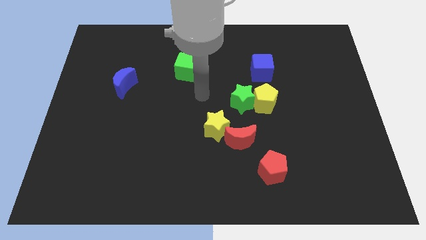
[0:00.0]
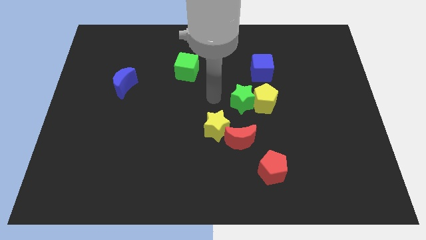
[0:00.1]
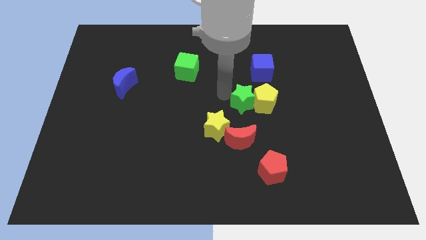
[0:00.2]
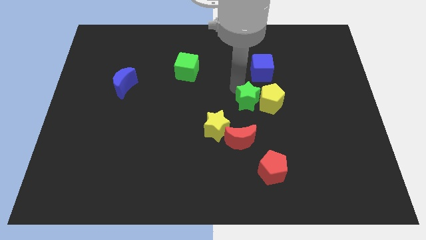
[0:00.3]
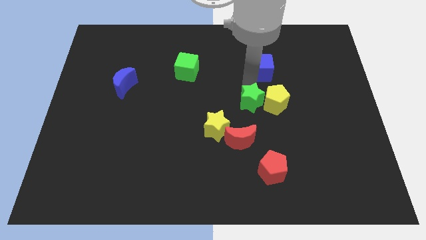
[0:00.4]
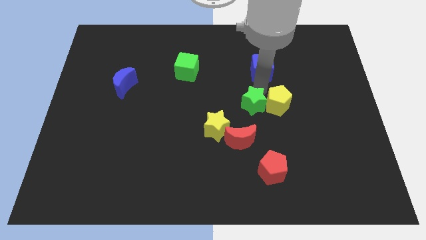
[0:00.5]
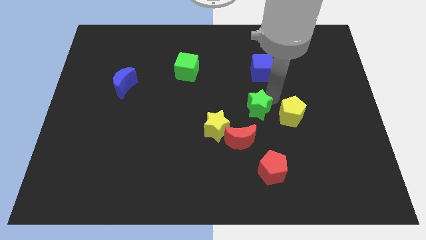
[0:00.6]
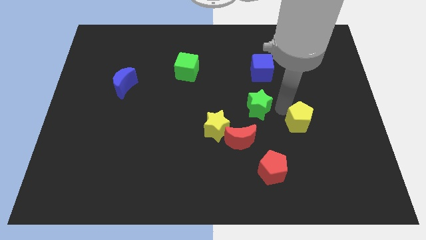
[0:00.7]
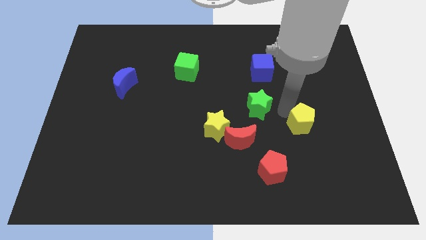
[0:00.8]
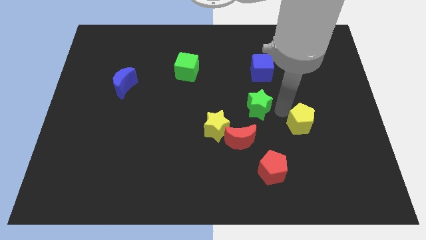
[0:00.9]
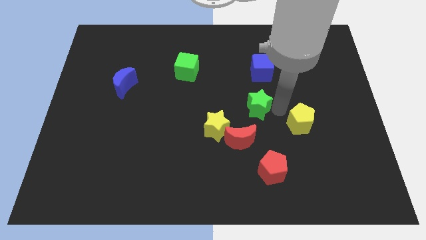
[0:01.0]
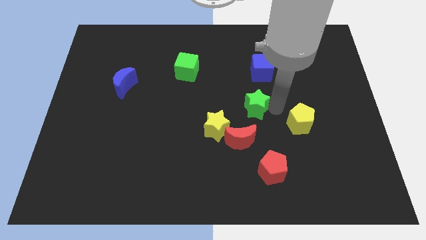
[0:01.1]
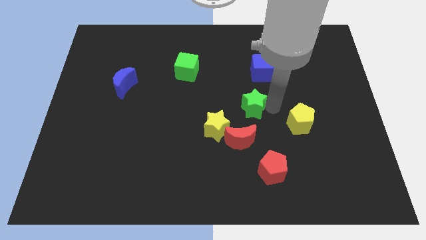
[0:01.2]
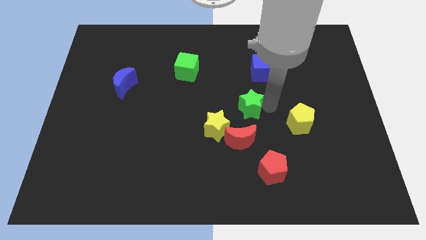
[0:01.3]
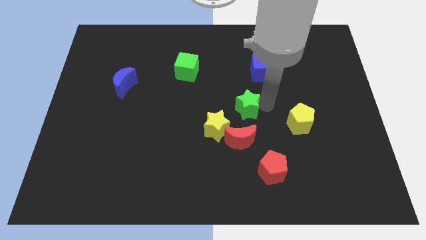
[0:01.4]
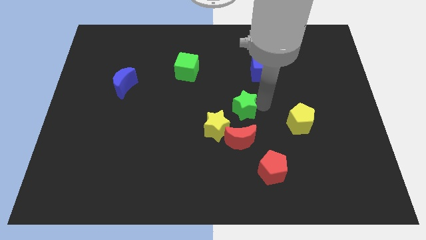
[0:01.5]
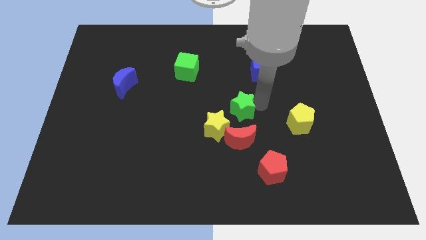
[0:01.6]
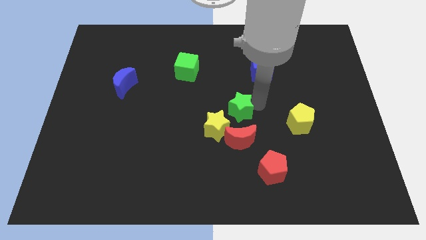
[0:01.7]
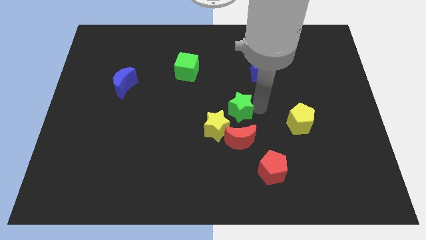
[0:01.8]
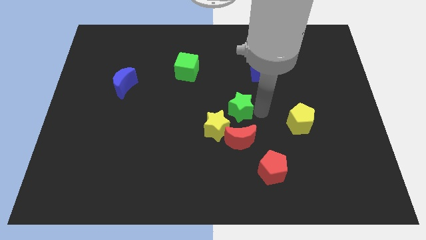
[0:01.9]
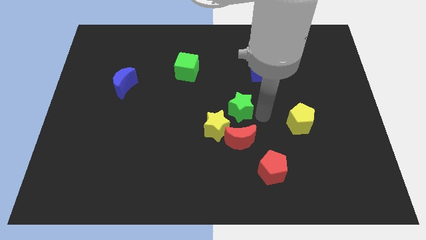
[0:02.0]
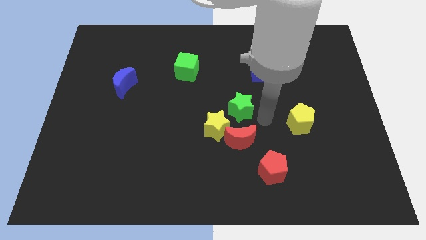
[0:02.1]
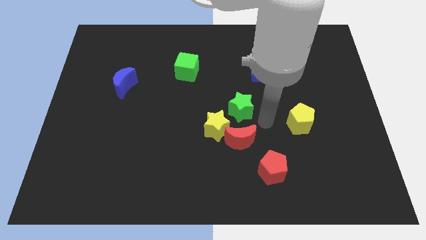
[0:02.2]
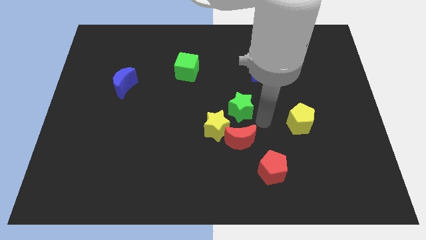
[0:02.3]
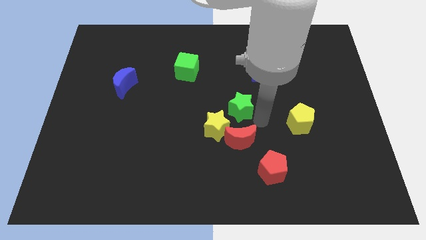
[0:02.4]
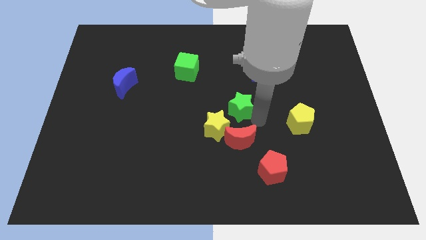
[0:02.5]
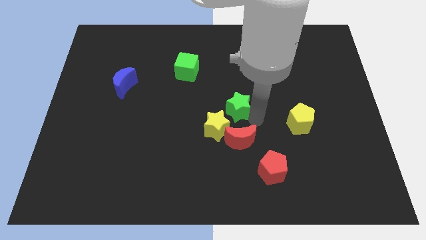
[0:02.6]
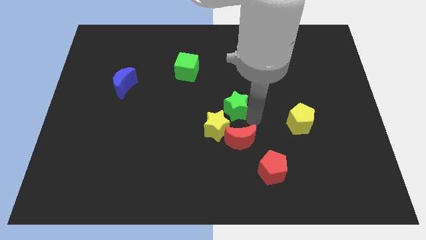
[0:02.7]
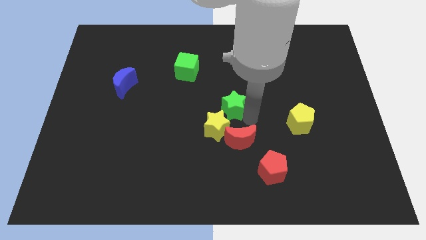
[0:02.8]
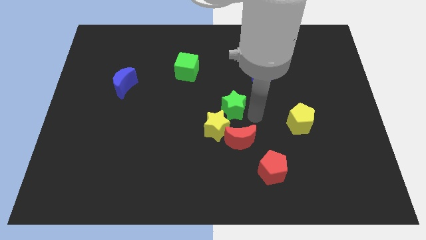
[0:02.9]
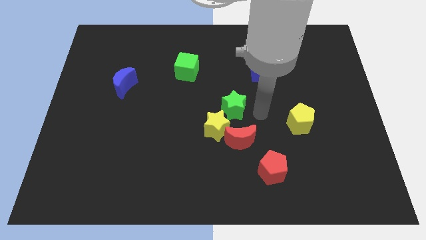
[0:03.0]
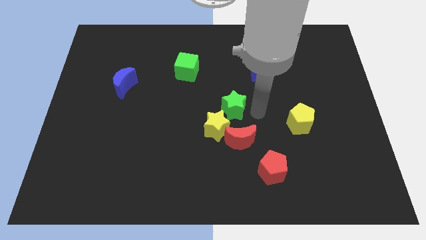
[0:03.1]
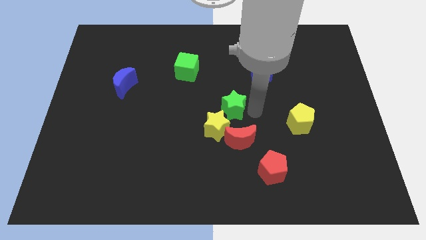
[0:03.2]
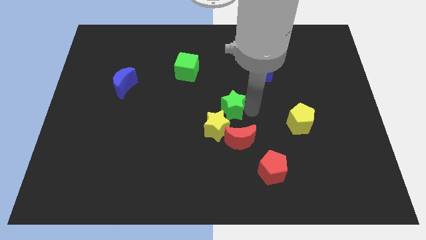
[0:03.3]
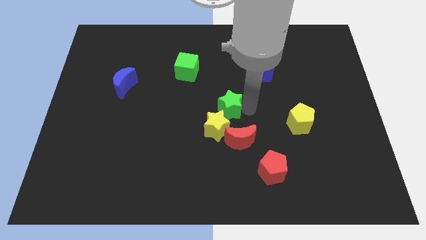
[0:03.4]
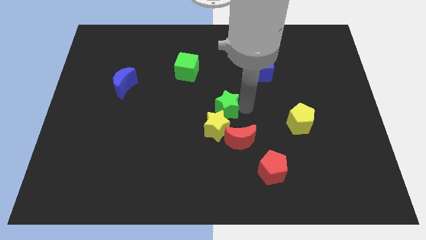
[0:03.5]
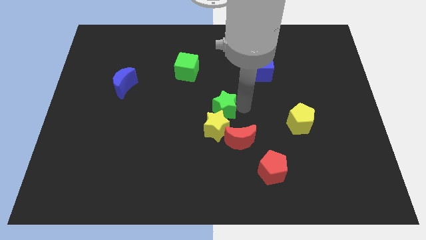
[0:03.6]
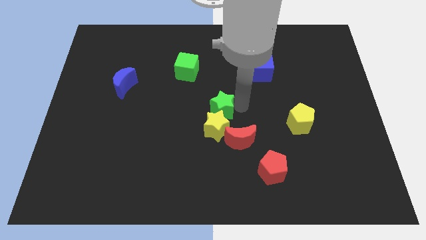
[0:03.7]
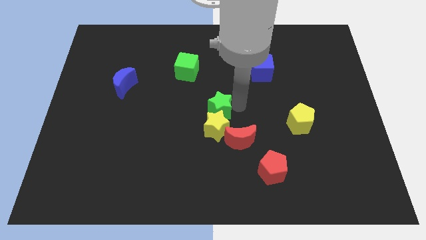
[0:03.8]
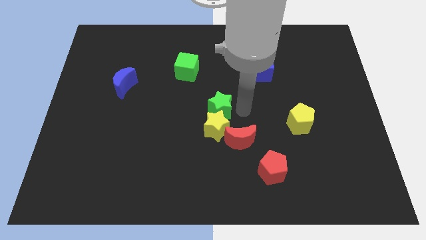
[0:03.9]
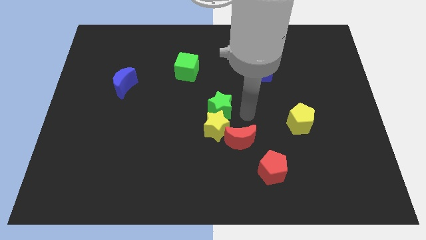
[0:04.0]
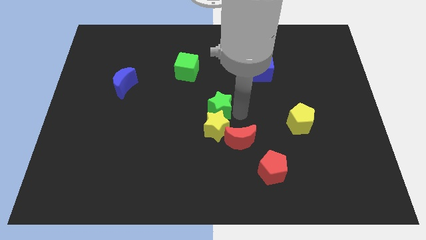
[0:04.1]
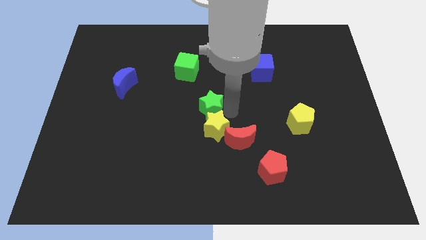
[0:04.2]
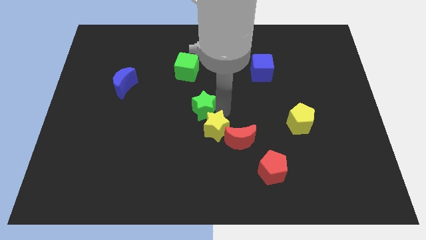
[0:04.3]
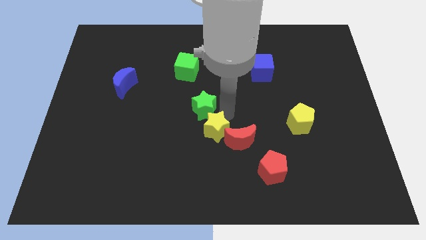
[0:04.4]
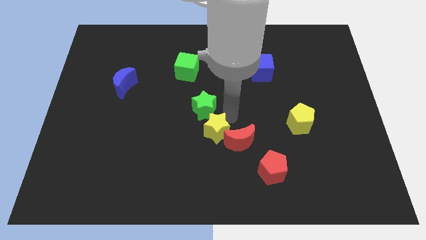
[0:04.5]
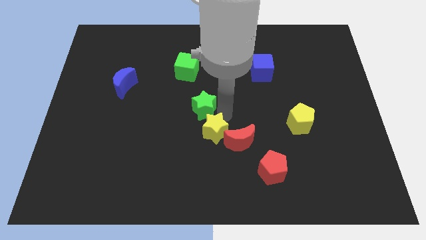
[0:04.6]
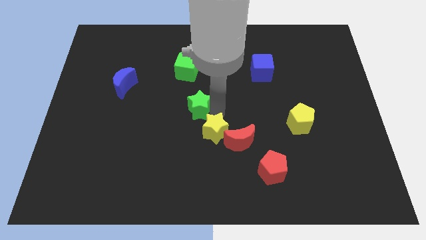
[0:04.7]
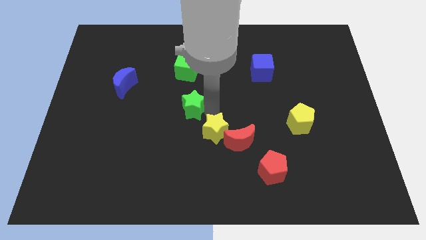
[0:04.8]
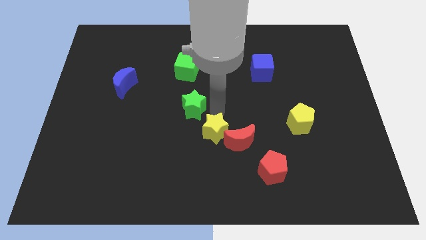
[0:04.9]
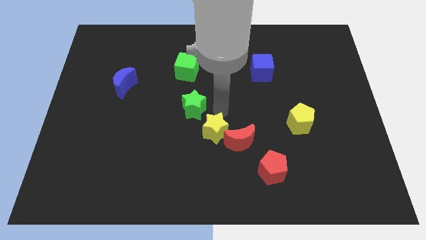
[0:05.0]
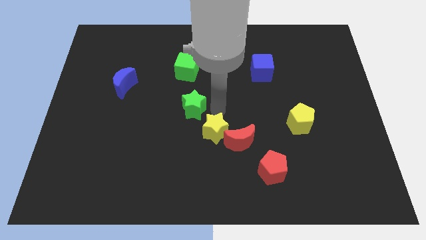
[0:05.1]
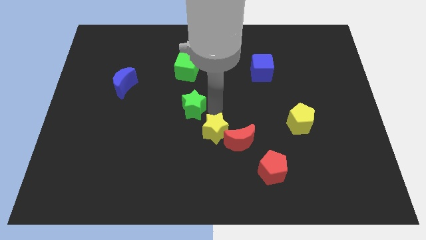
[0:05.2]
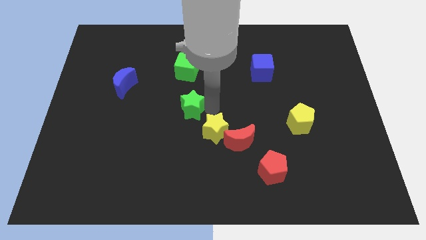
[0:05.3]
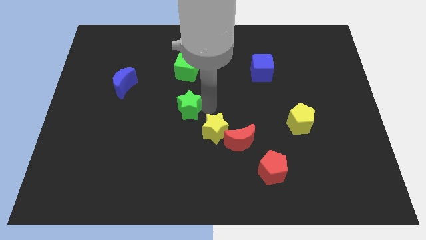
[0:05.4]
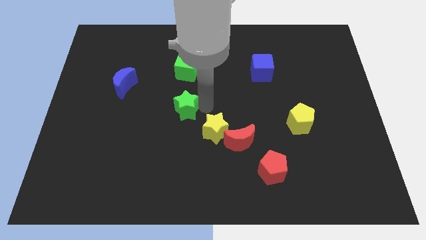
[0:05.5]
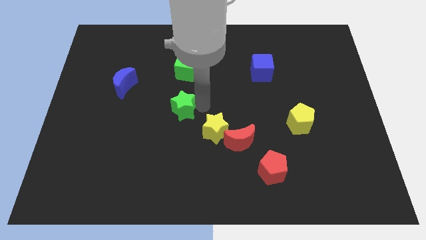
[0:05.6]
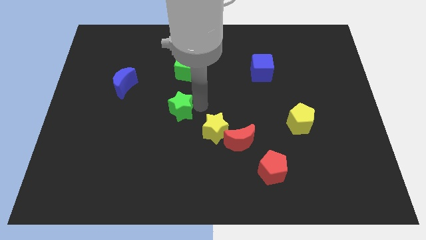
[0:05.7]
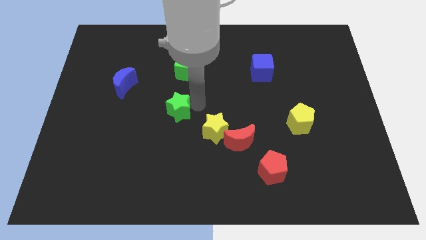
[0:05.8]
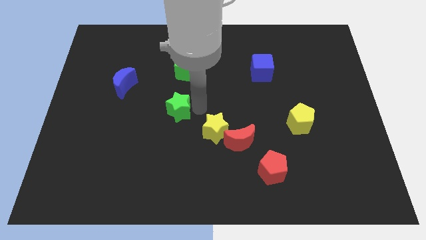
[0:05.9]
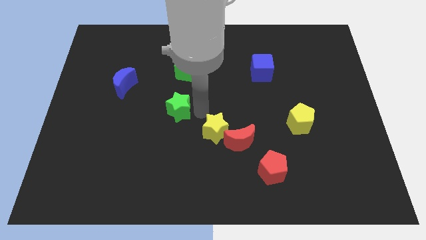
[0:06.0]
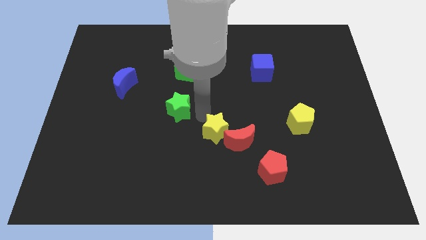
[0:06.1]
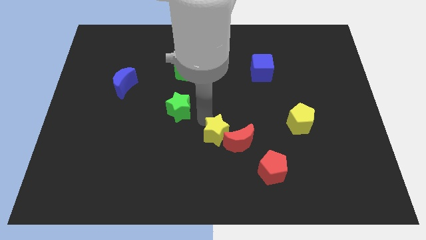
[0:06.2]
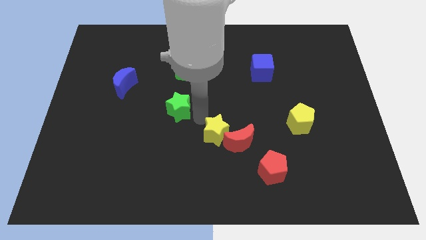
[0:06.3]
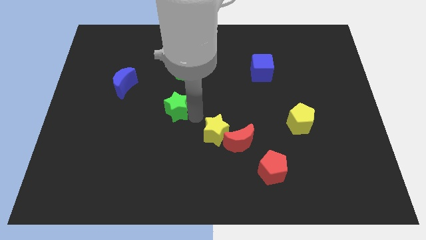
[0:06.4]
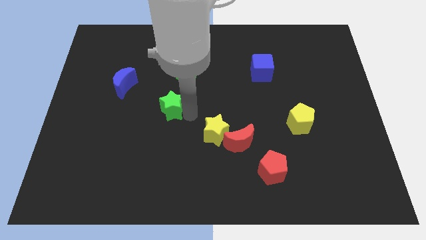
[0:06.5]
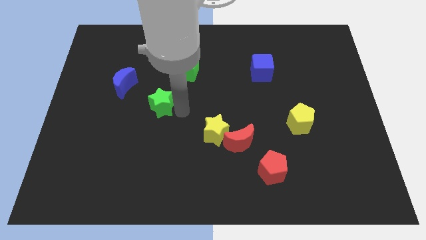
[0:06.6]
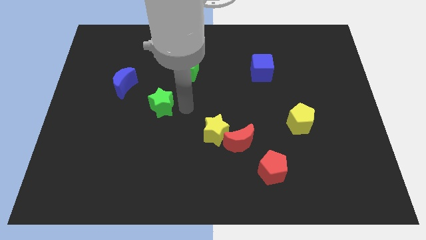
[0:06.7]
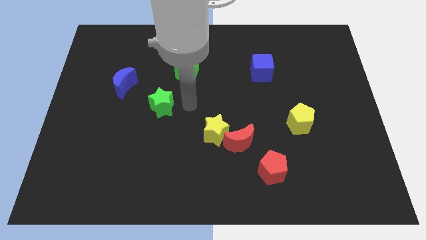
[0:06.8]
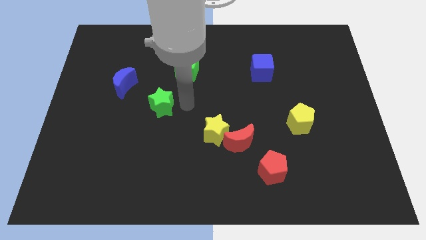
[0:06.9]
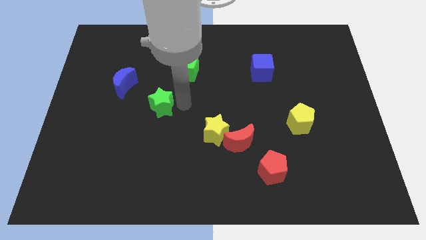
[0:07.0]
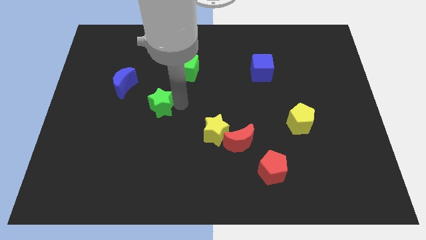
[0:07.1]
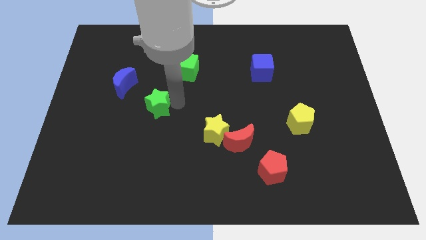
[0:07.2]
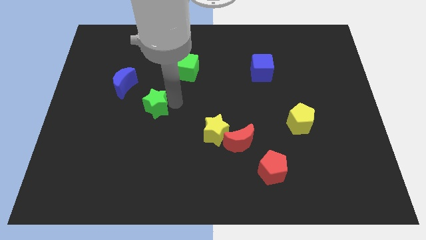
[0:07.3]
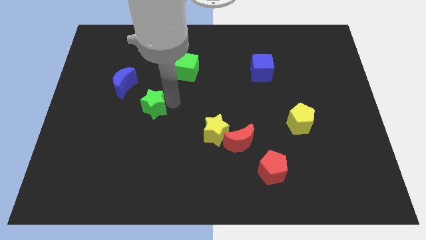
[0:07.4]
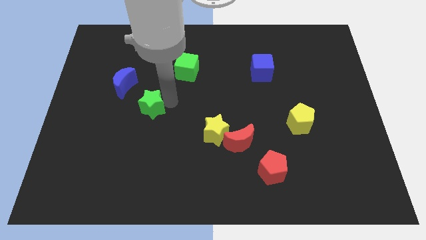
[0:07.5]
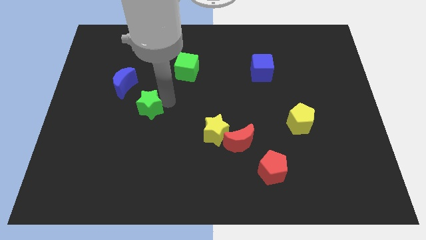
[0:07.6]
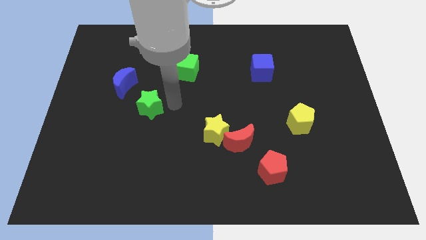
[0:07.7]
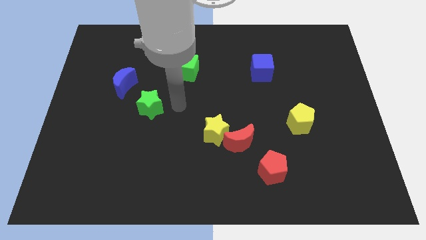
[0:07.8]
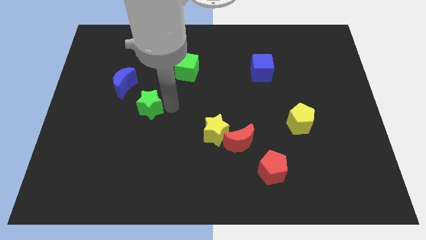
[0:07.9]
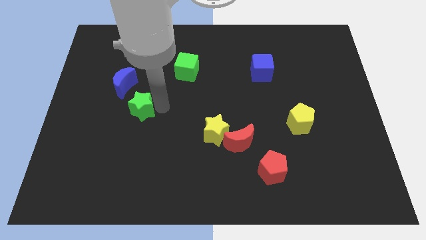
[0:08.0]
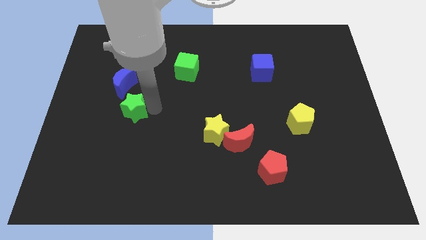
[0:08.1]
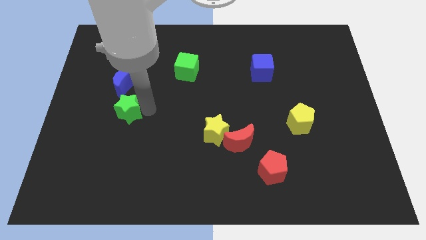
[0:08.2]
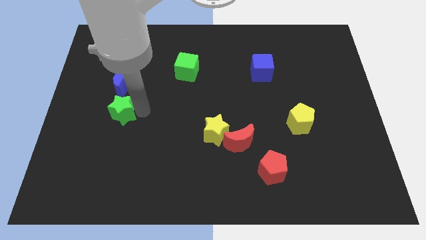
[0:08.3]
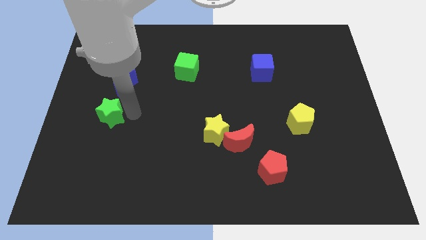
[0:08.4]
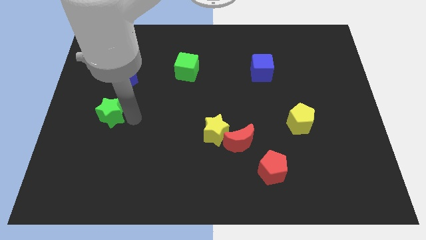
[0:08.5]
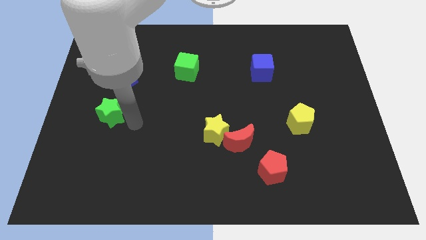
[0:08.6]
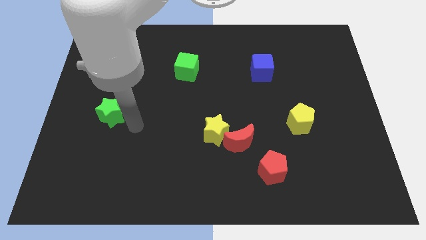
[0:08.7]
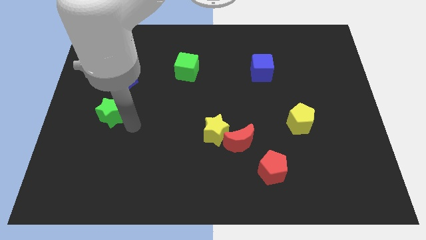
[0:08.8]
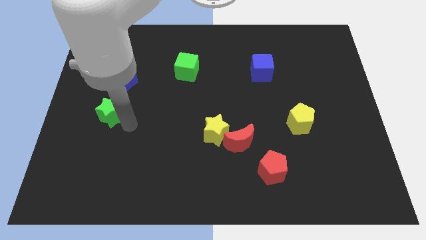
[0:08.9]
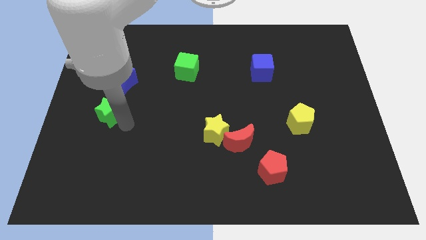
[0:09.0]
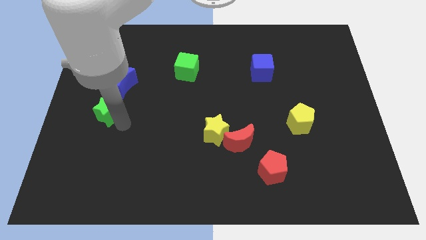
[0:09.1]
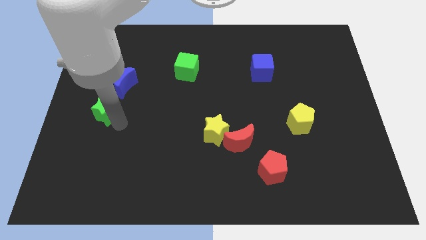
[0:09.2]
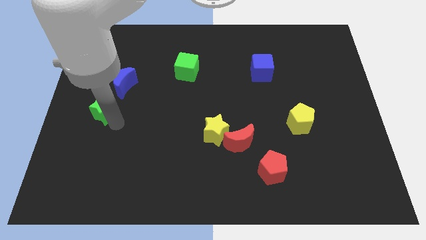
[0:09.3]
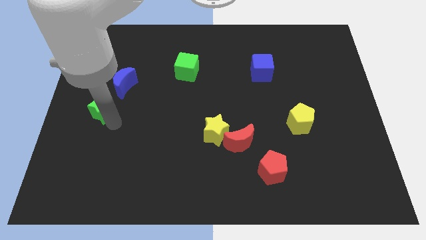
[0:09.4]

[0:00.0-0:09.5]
slide the green star to the left side of the board
